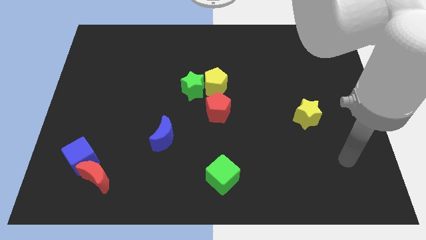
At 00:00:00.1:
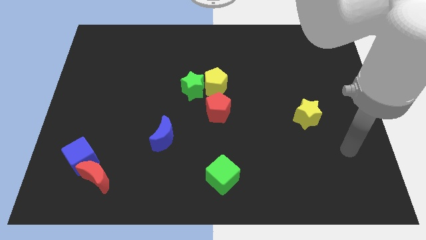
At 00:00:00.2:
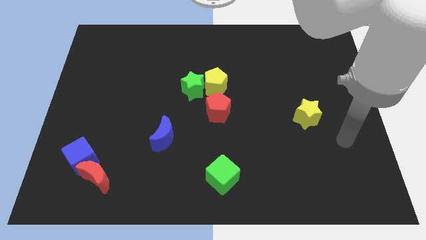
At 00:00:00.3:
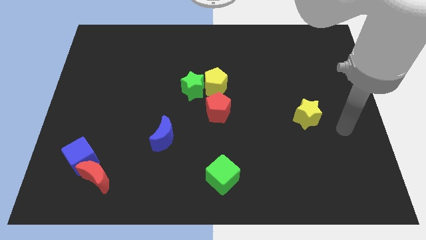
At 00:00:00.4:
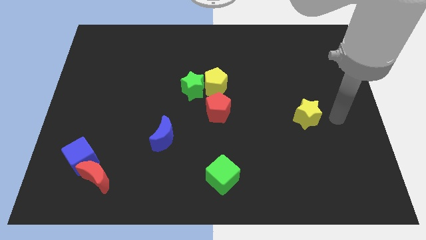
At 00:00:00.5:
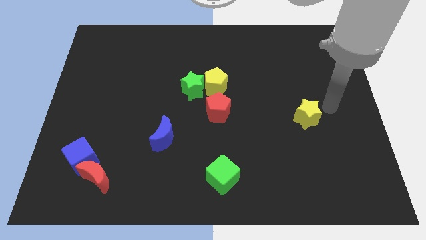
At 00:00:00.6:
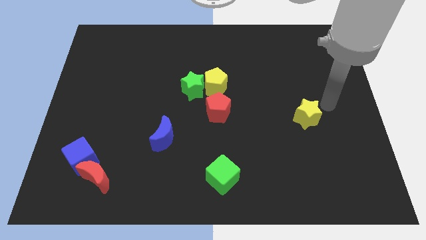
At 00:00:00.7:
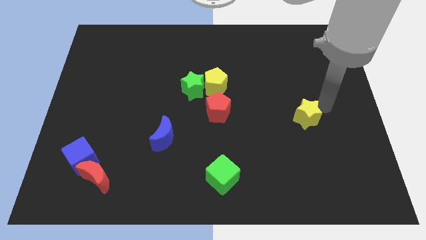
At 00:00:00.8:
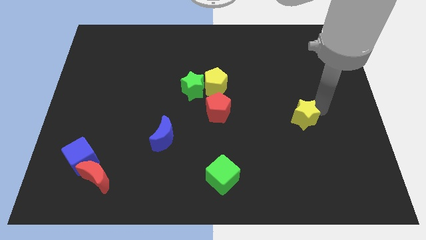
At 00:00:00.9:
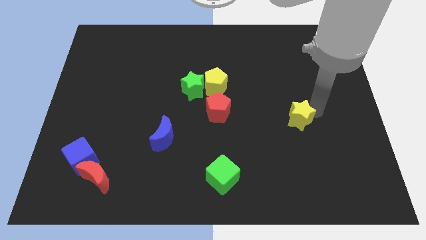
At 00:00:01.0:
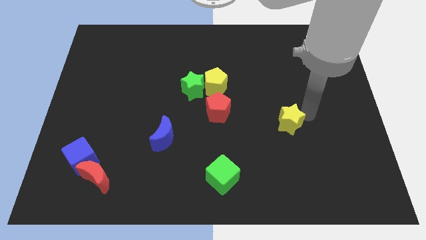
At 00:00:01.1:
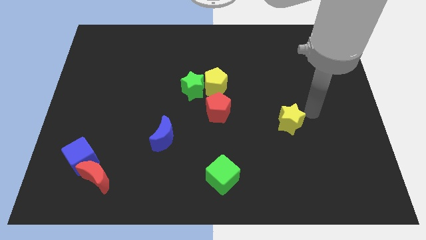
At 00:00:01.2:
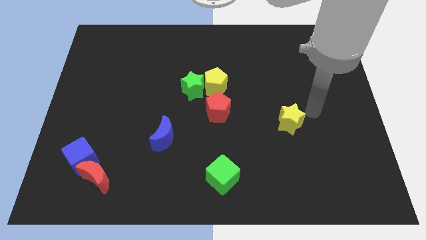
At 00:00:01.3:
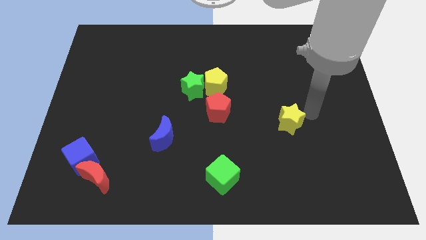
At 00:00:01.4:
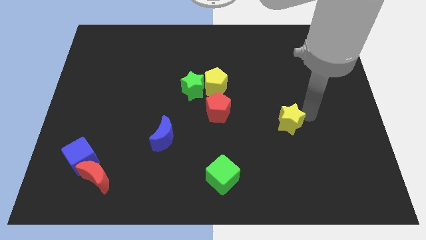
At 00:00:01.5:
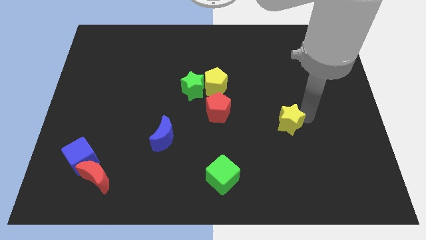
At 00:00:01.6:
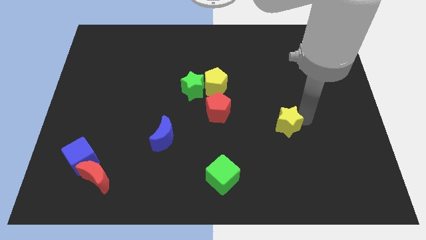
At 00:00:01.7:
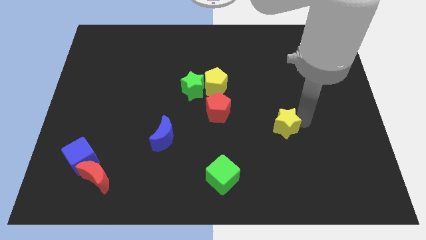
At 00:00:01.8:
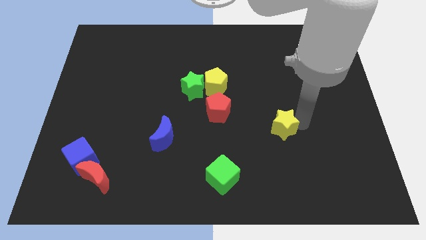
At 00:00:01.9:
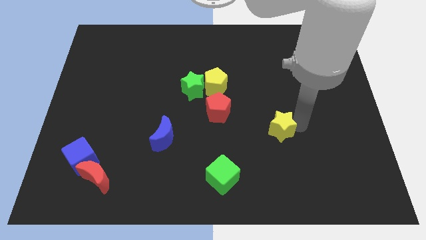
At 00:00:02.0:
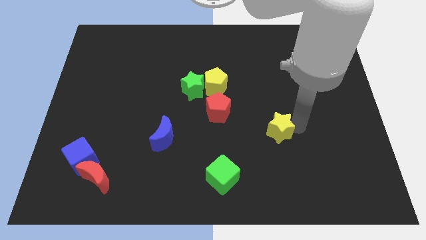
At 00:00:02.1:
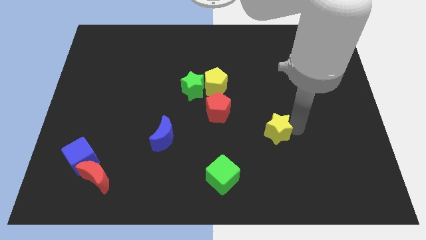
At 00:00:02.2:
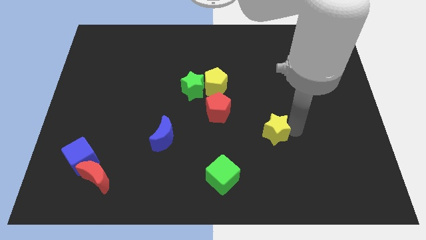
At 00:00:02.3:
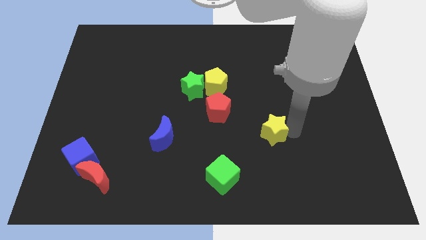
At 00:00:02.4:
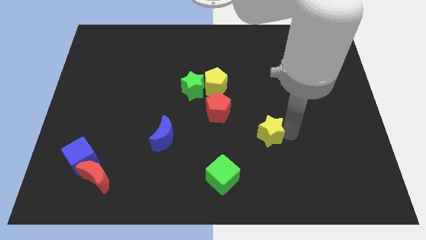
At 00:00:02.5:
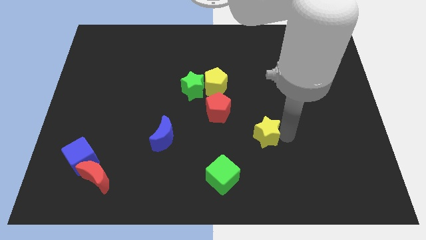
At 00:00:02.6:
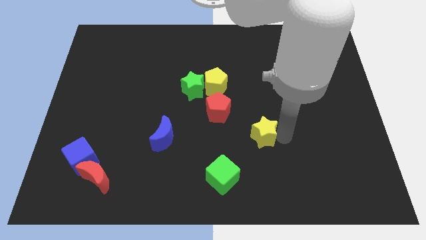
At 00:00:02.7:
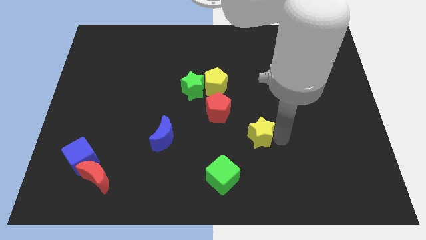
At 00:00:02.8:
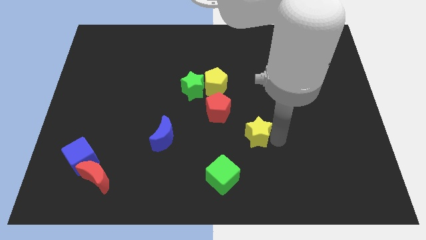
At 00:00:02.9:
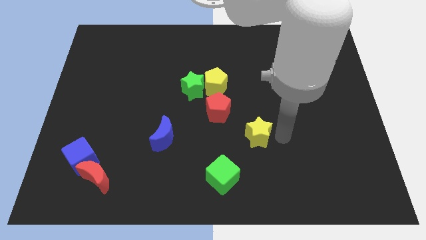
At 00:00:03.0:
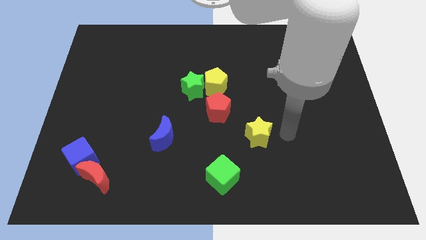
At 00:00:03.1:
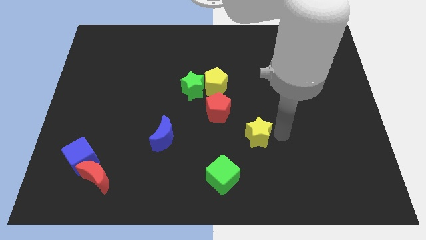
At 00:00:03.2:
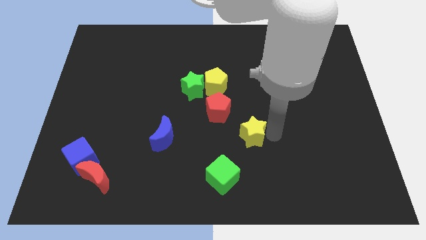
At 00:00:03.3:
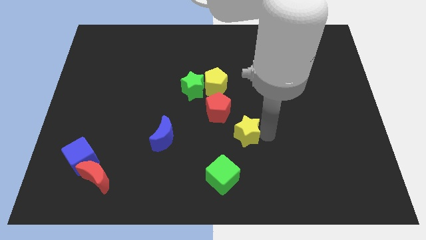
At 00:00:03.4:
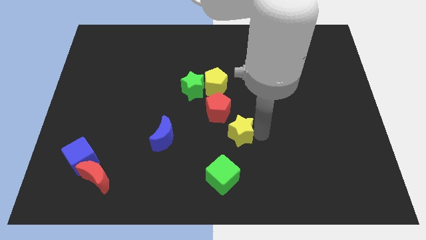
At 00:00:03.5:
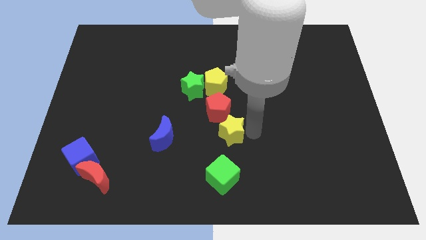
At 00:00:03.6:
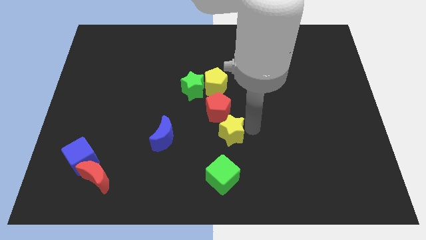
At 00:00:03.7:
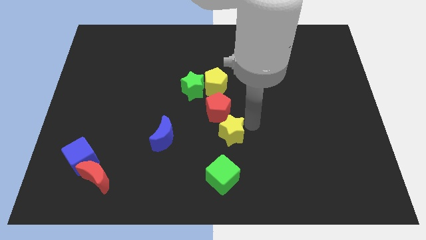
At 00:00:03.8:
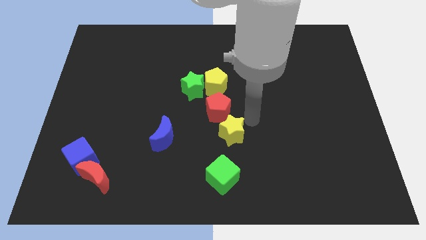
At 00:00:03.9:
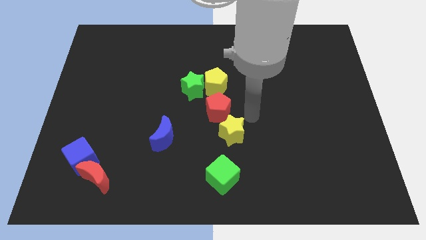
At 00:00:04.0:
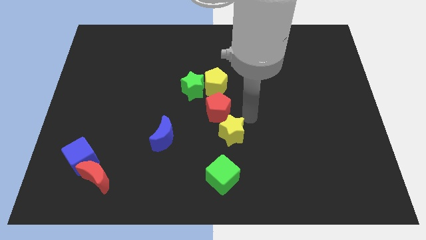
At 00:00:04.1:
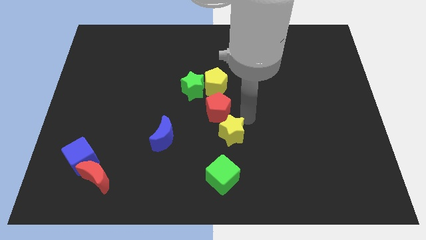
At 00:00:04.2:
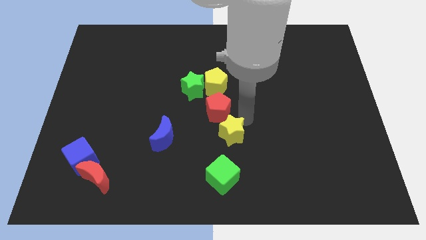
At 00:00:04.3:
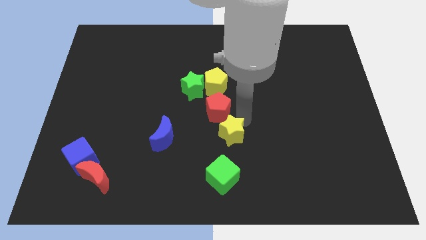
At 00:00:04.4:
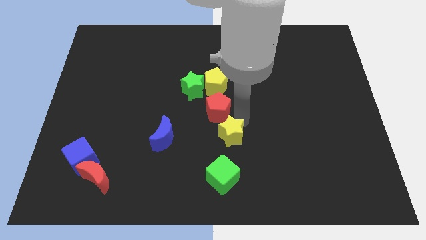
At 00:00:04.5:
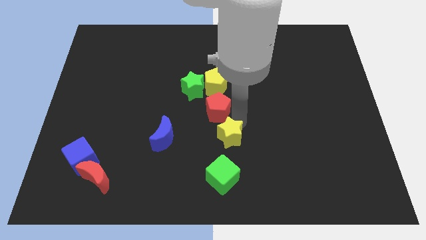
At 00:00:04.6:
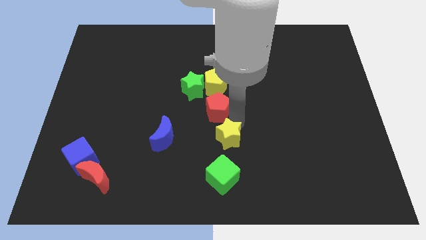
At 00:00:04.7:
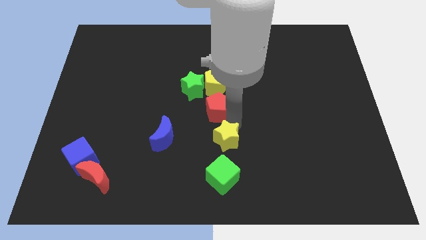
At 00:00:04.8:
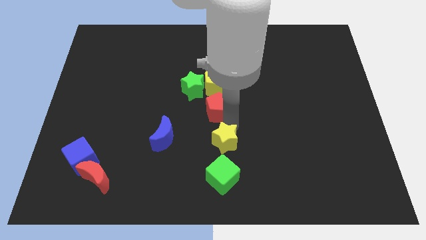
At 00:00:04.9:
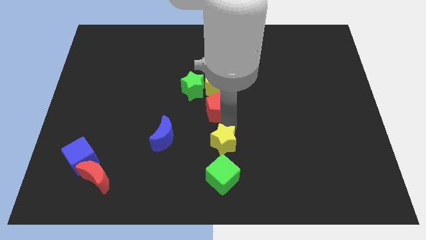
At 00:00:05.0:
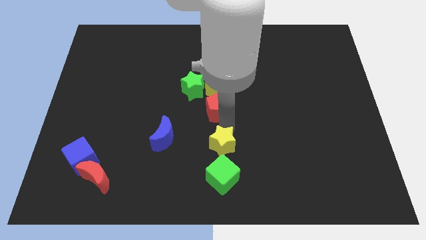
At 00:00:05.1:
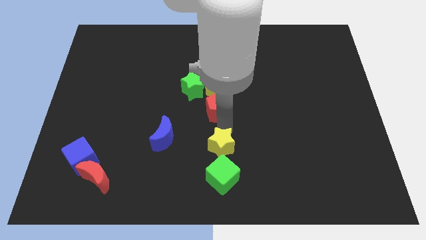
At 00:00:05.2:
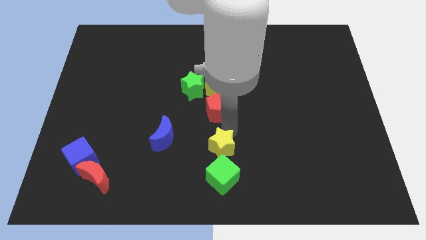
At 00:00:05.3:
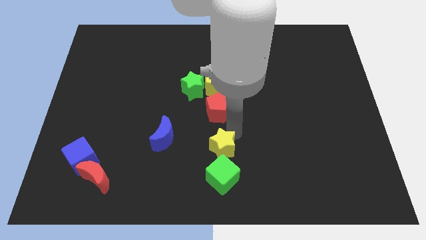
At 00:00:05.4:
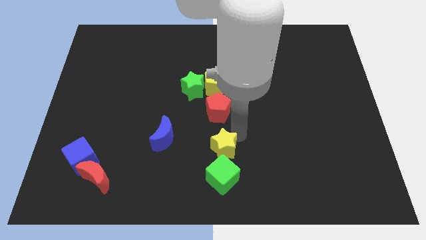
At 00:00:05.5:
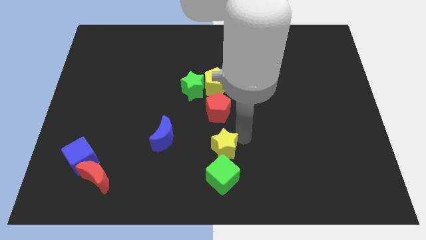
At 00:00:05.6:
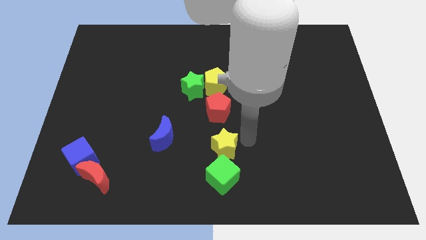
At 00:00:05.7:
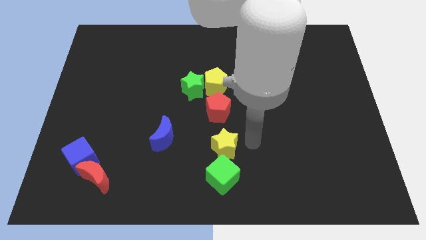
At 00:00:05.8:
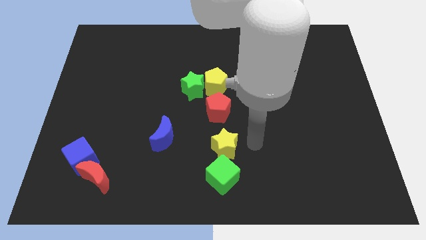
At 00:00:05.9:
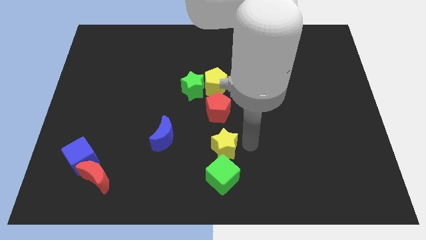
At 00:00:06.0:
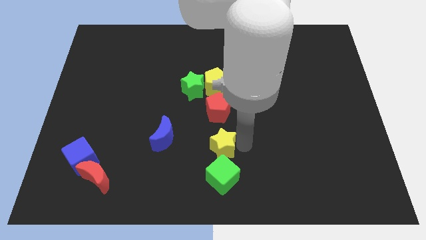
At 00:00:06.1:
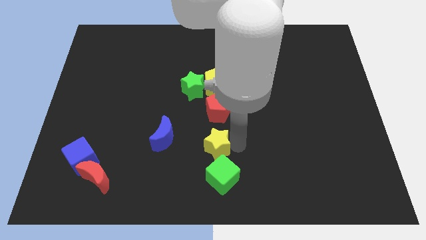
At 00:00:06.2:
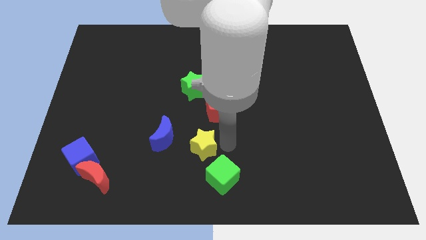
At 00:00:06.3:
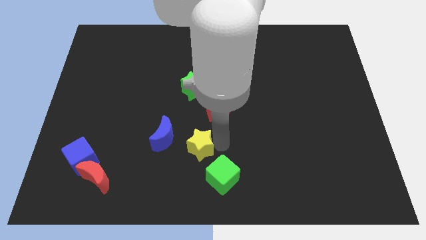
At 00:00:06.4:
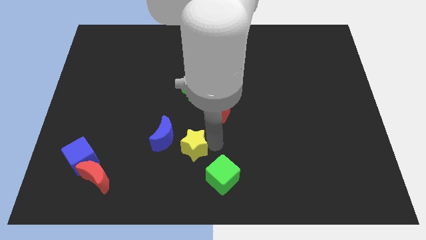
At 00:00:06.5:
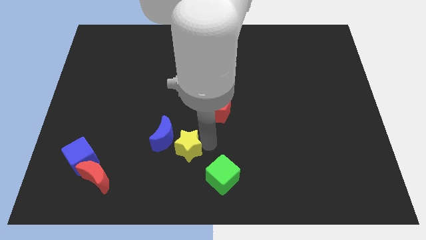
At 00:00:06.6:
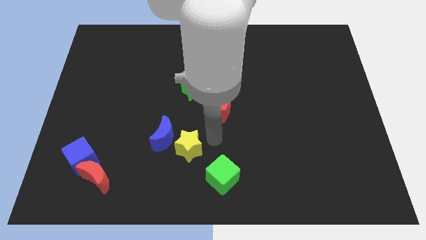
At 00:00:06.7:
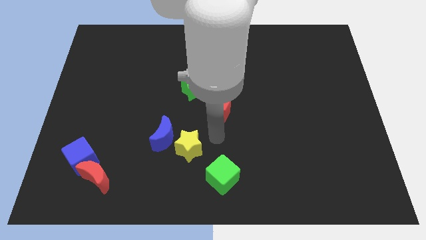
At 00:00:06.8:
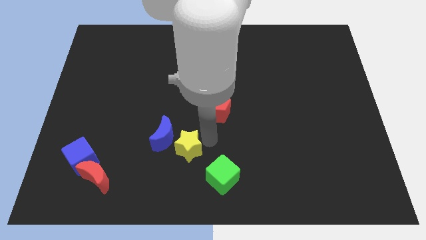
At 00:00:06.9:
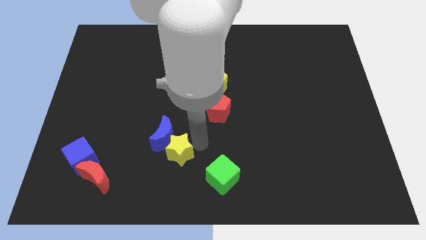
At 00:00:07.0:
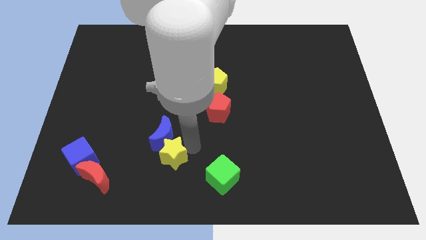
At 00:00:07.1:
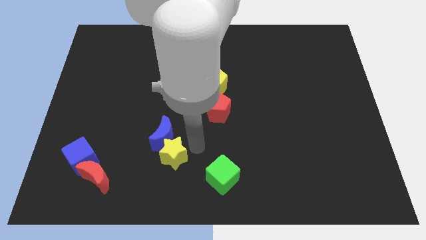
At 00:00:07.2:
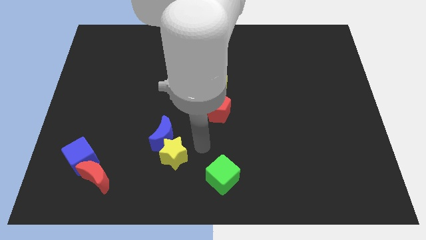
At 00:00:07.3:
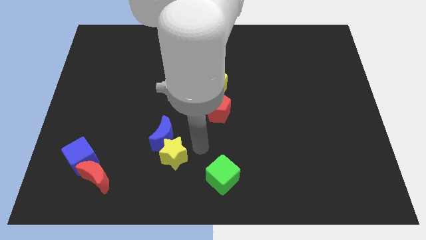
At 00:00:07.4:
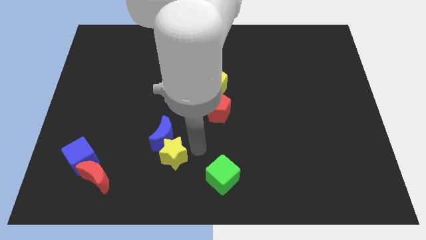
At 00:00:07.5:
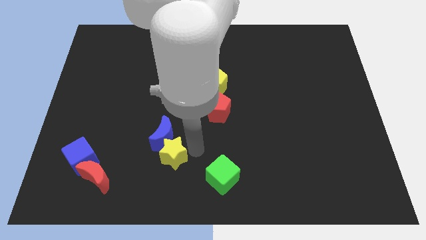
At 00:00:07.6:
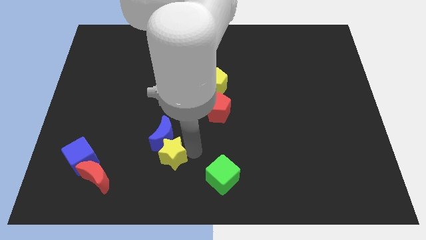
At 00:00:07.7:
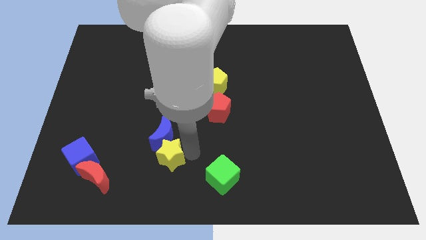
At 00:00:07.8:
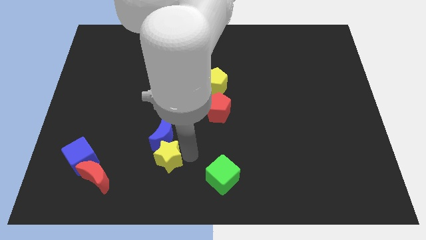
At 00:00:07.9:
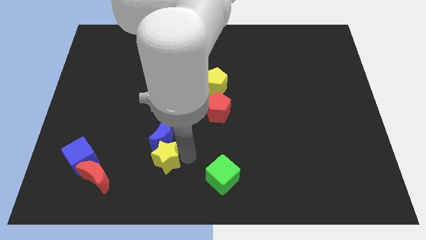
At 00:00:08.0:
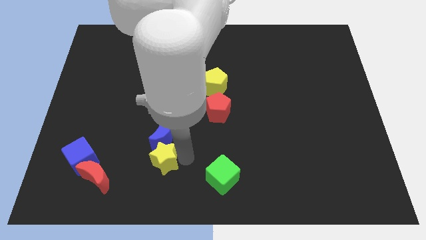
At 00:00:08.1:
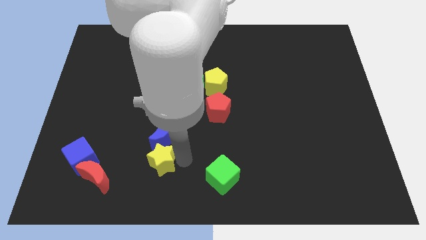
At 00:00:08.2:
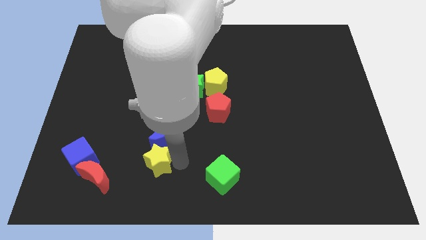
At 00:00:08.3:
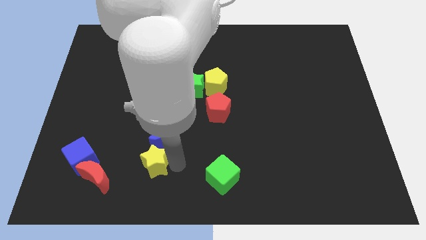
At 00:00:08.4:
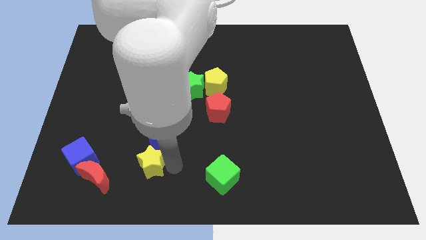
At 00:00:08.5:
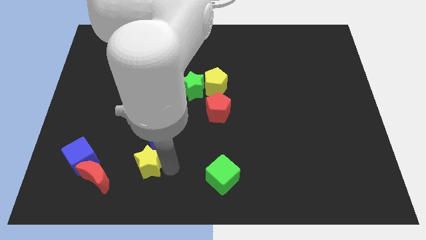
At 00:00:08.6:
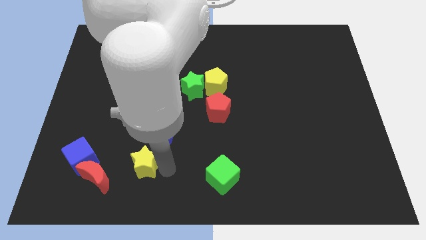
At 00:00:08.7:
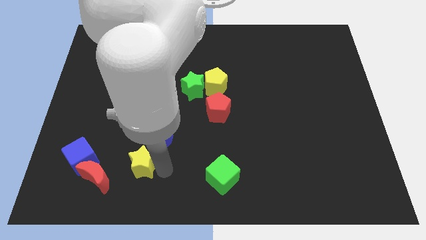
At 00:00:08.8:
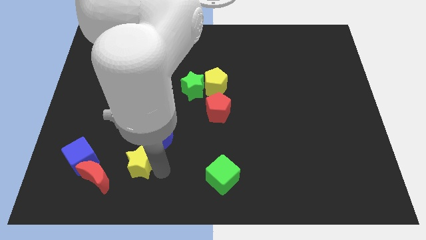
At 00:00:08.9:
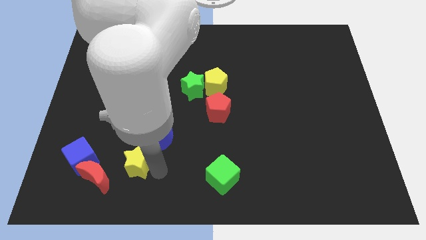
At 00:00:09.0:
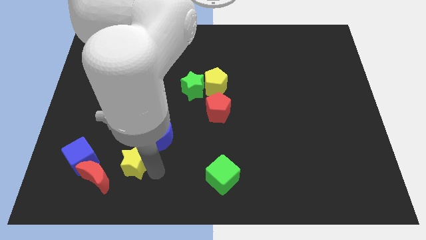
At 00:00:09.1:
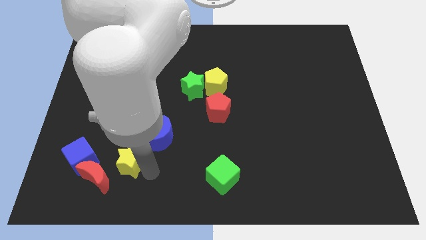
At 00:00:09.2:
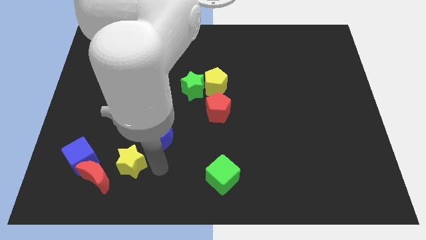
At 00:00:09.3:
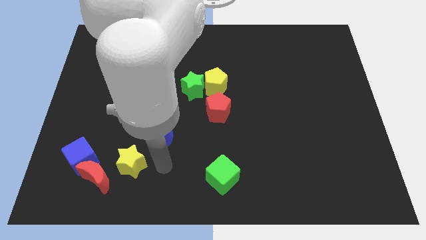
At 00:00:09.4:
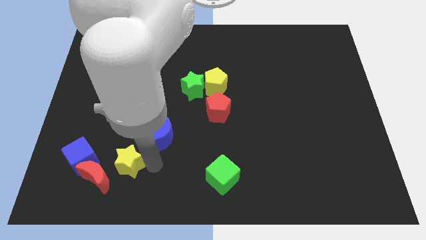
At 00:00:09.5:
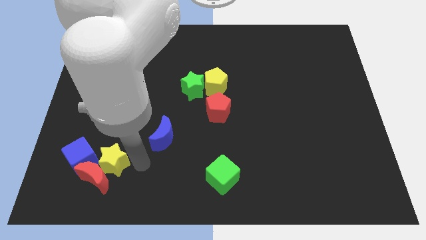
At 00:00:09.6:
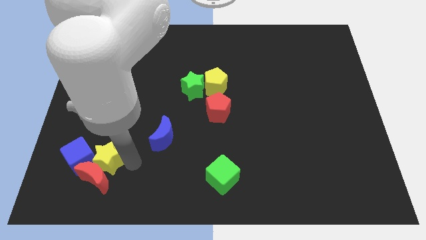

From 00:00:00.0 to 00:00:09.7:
slide the yellow star towards the blue cube
